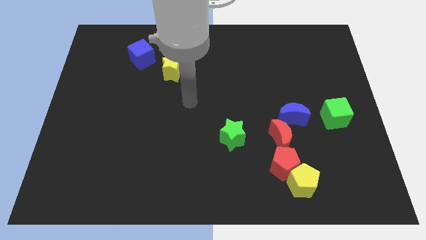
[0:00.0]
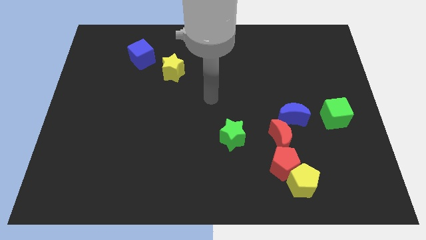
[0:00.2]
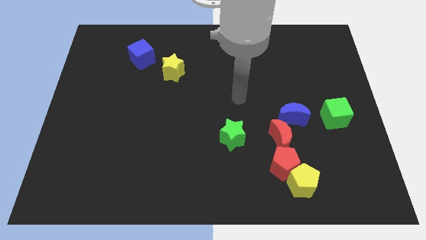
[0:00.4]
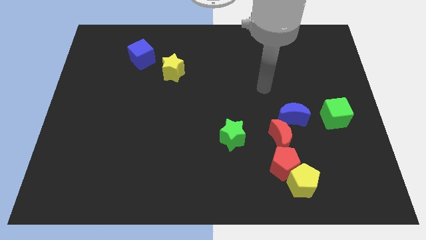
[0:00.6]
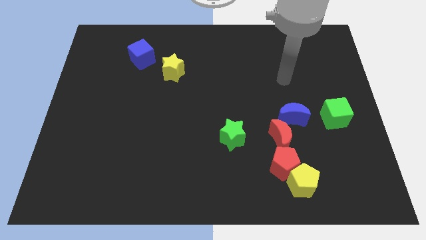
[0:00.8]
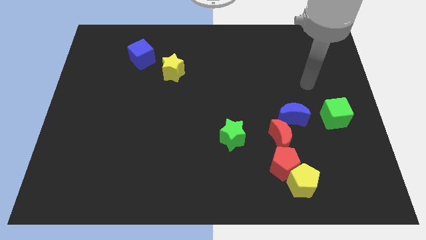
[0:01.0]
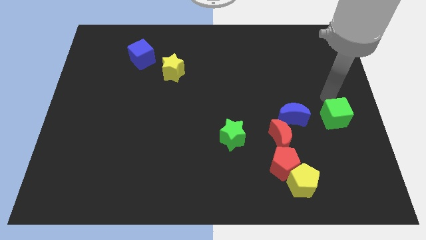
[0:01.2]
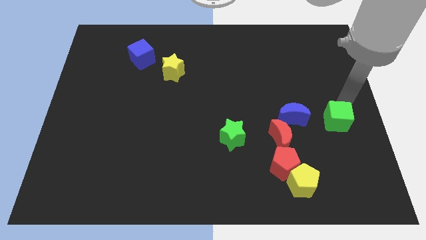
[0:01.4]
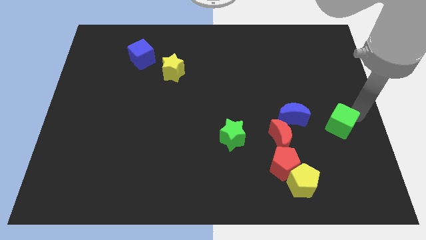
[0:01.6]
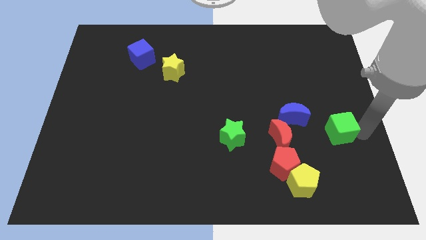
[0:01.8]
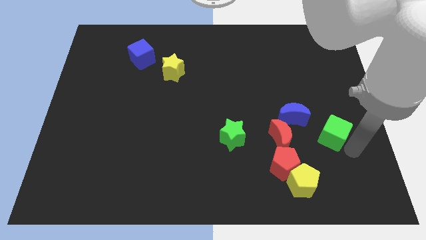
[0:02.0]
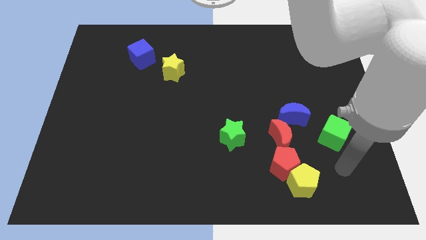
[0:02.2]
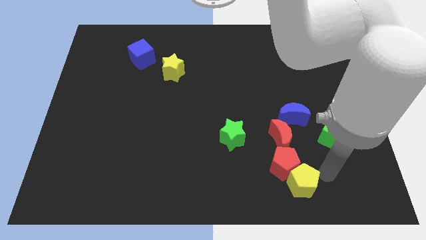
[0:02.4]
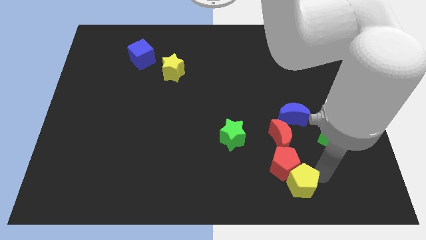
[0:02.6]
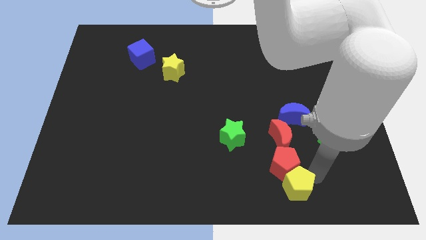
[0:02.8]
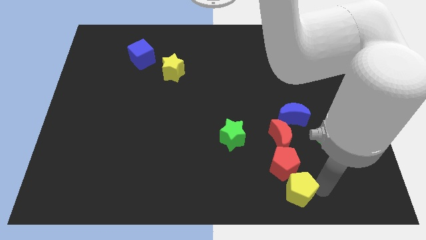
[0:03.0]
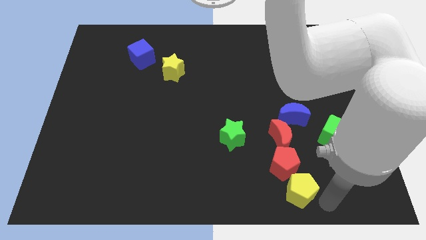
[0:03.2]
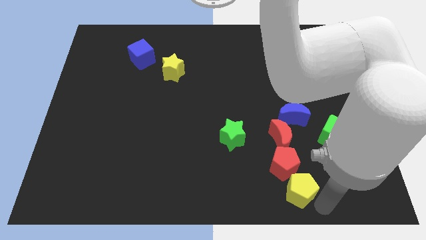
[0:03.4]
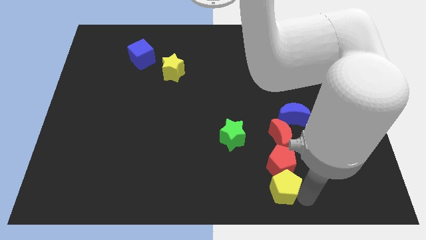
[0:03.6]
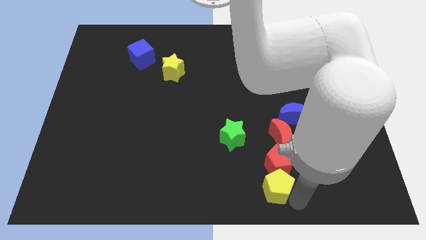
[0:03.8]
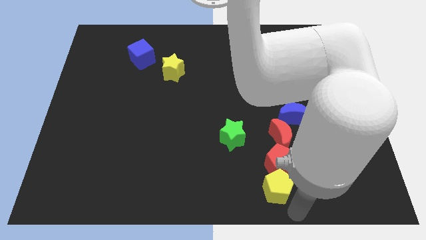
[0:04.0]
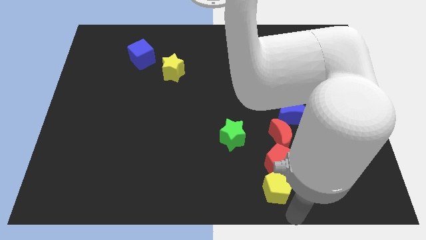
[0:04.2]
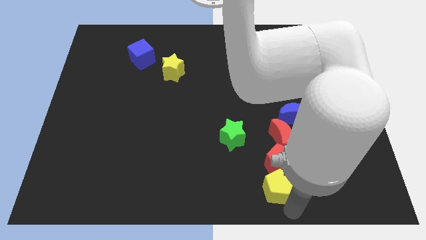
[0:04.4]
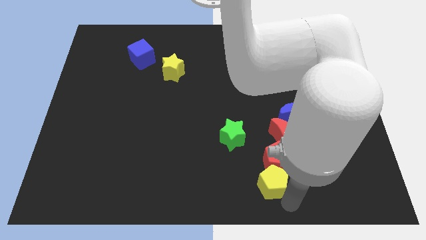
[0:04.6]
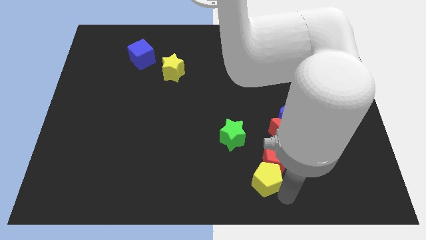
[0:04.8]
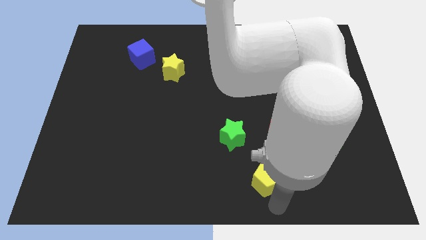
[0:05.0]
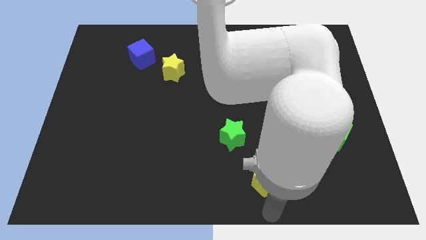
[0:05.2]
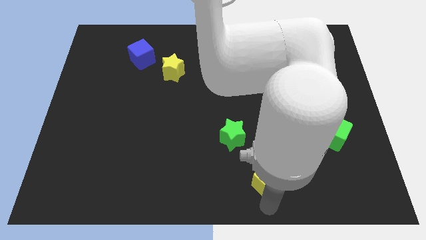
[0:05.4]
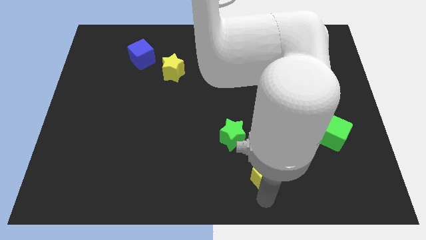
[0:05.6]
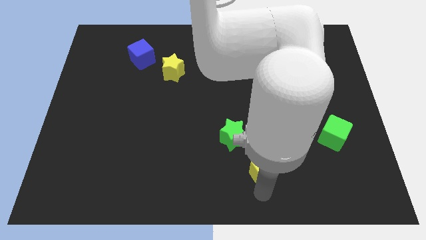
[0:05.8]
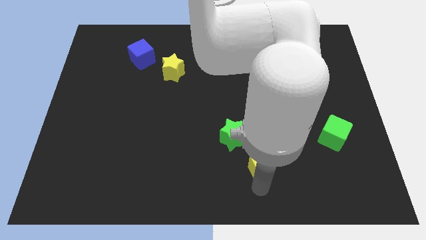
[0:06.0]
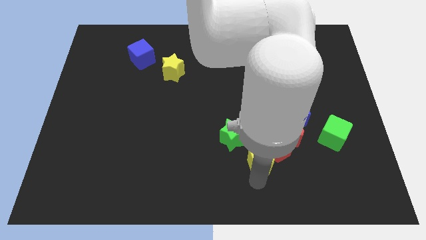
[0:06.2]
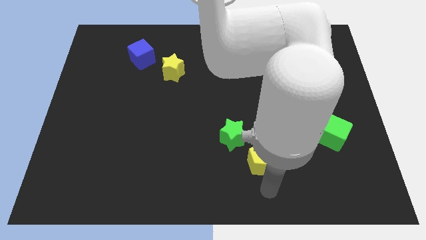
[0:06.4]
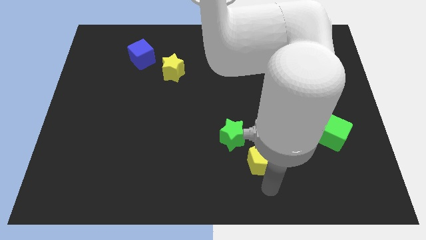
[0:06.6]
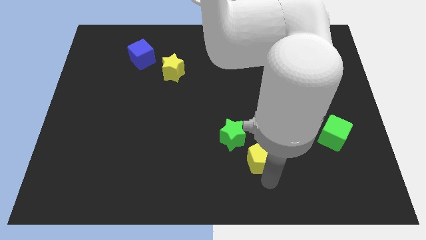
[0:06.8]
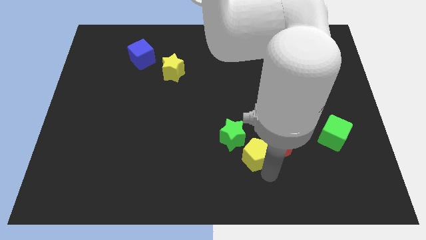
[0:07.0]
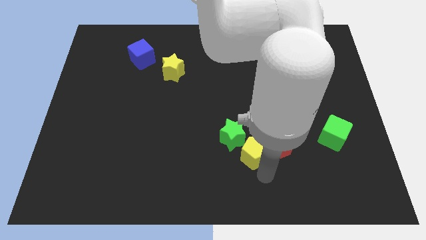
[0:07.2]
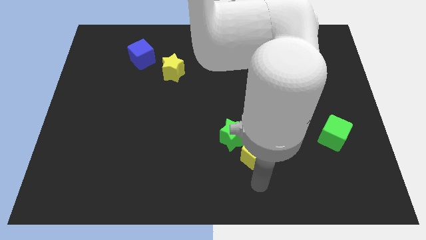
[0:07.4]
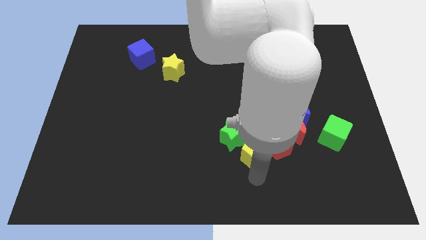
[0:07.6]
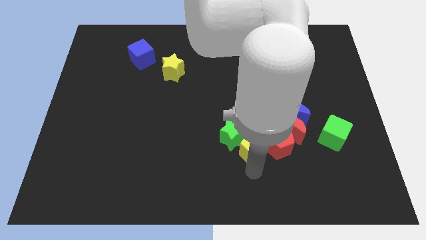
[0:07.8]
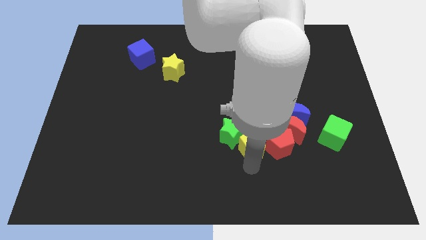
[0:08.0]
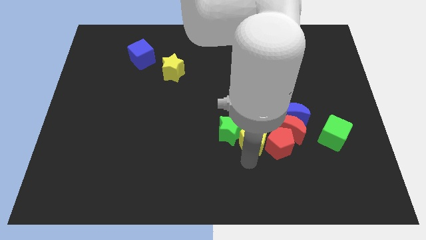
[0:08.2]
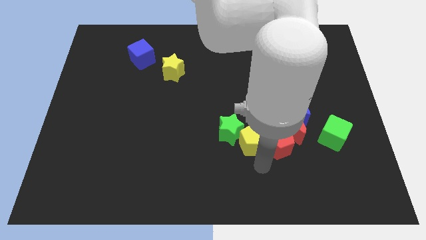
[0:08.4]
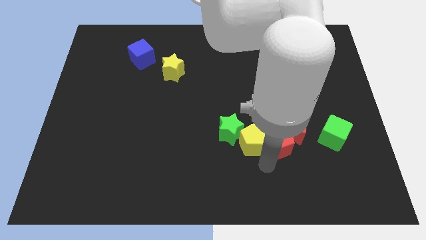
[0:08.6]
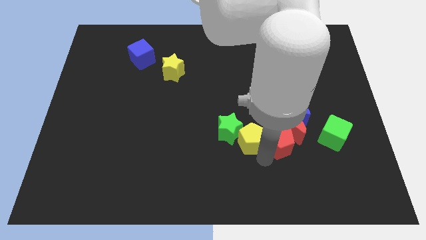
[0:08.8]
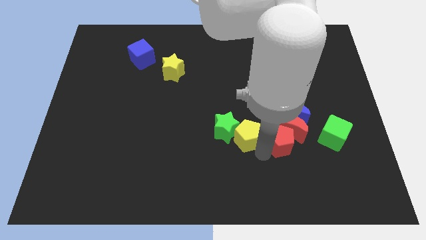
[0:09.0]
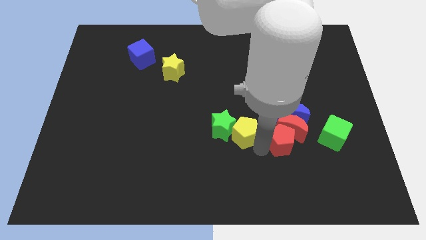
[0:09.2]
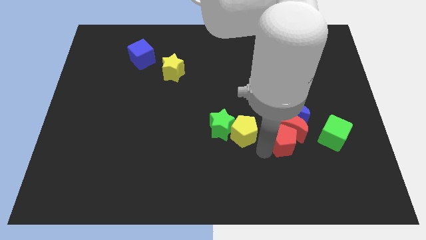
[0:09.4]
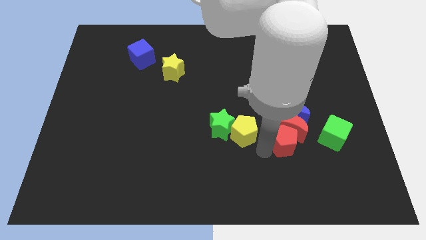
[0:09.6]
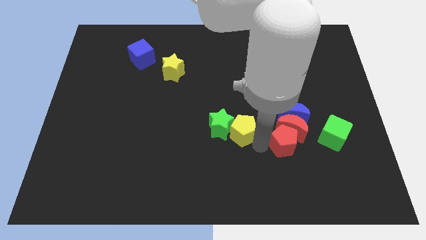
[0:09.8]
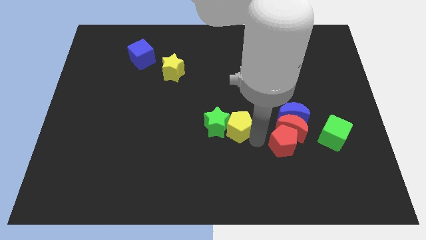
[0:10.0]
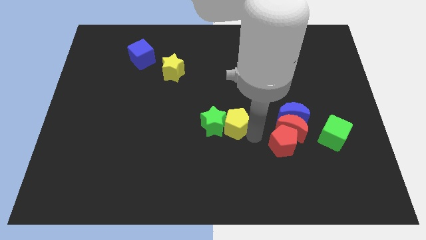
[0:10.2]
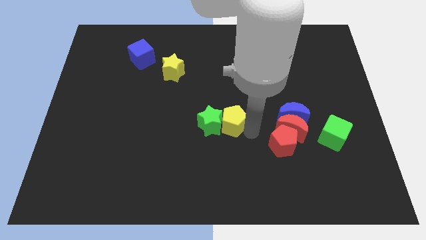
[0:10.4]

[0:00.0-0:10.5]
slide the yellow pentagon upwards and left diagonally

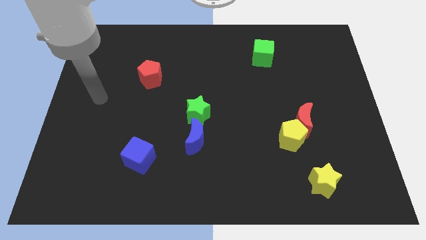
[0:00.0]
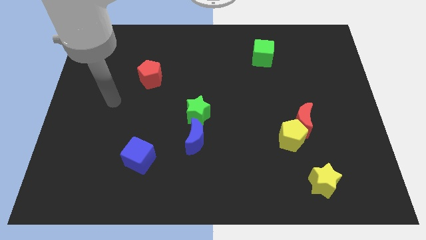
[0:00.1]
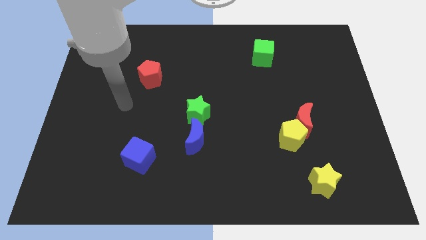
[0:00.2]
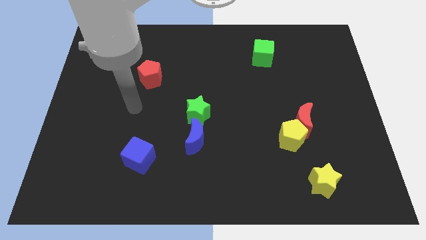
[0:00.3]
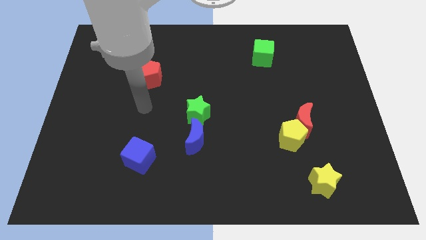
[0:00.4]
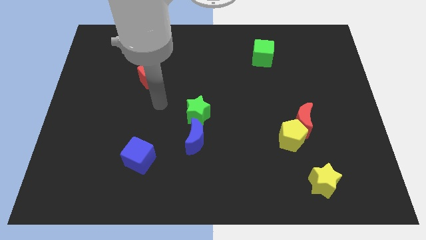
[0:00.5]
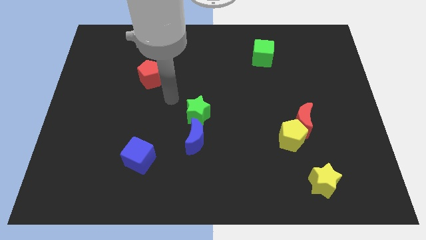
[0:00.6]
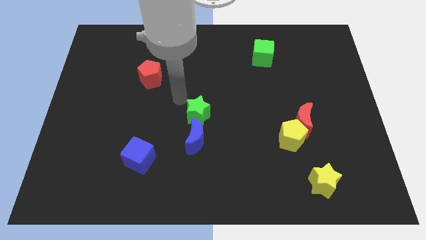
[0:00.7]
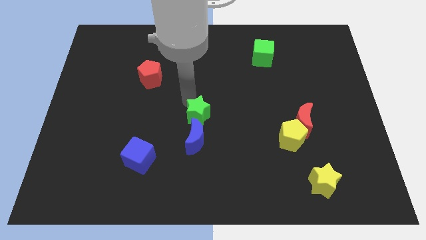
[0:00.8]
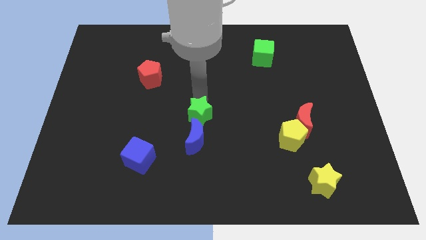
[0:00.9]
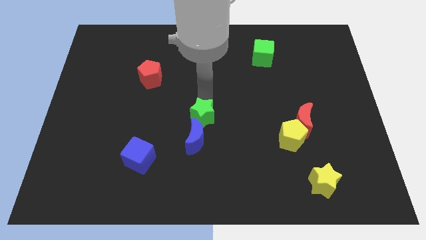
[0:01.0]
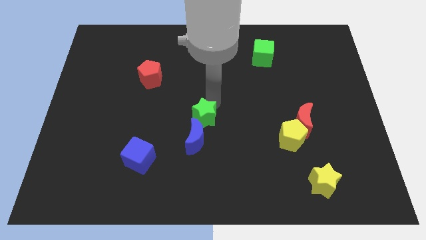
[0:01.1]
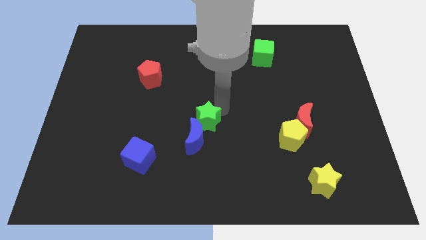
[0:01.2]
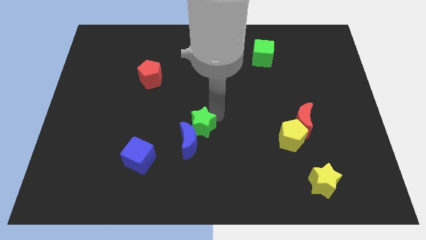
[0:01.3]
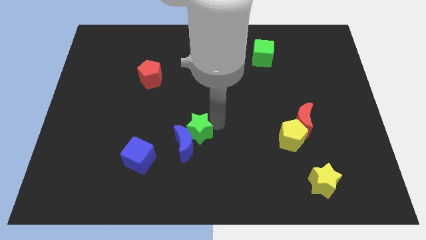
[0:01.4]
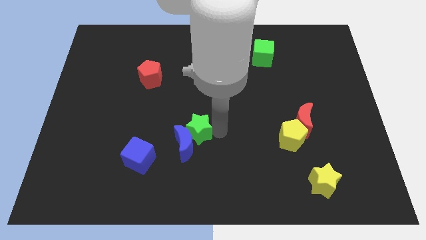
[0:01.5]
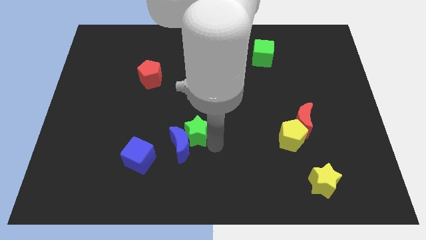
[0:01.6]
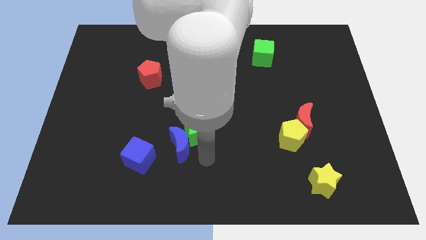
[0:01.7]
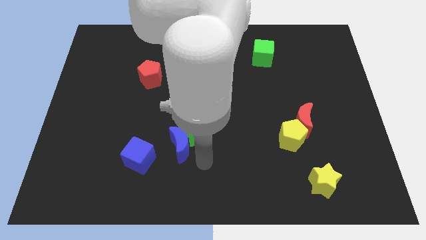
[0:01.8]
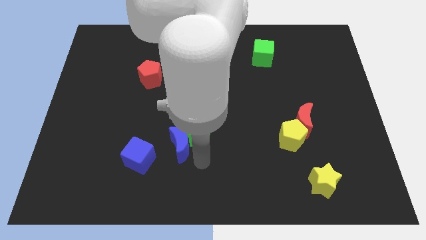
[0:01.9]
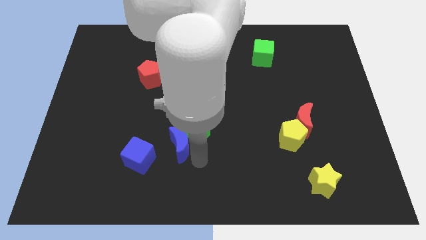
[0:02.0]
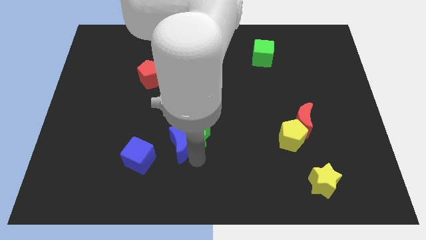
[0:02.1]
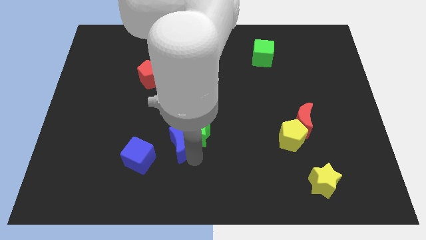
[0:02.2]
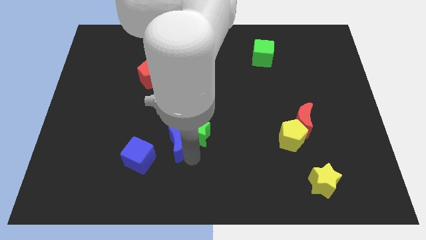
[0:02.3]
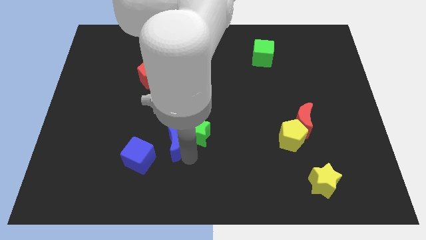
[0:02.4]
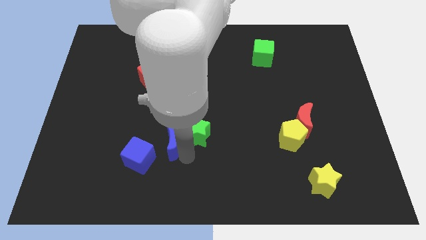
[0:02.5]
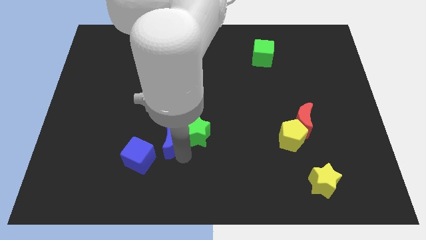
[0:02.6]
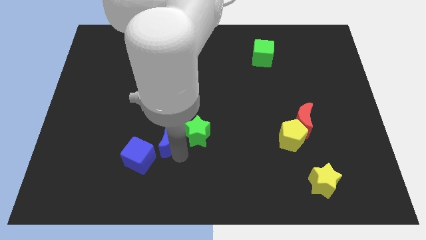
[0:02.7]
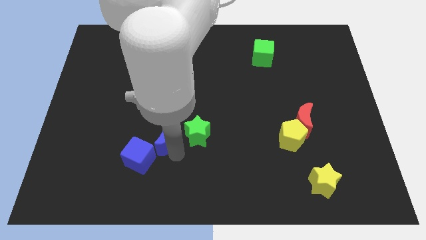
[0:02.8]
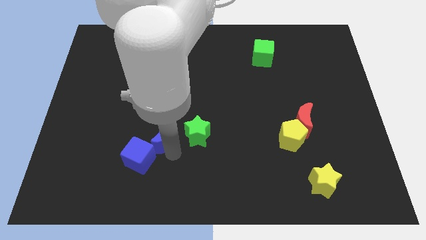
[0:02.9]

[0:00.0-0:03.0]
slightly slide the blue moon left
